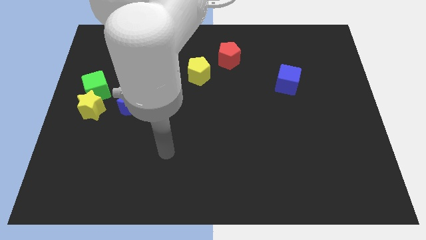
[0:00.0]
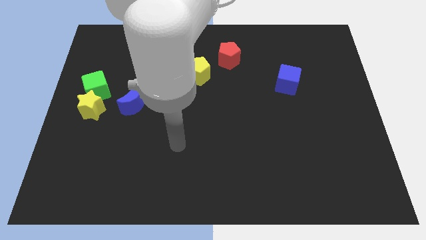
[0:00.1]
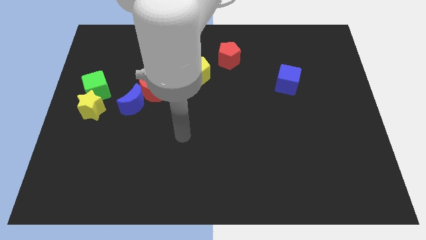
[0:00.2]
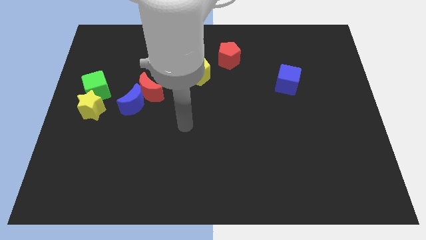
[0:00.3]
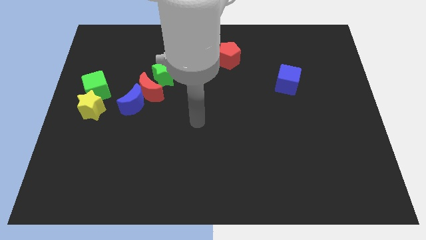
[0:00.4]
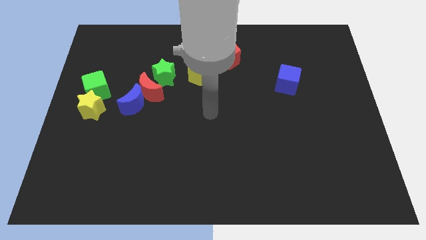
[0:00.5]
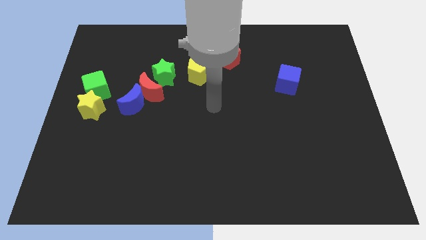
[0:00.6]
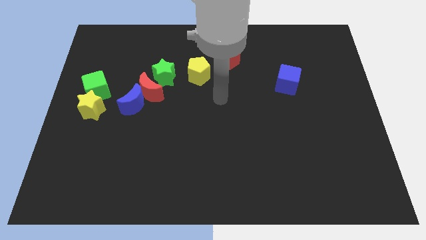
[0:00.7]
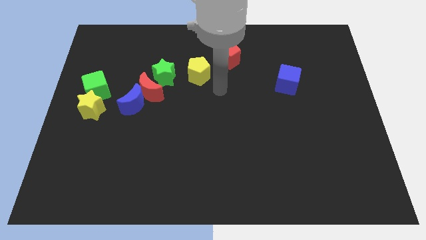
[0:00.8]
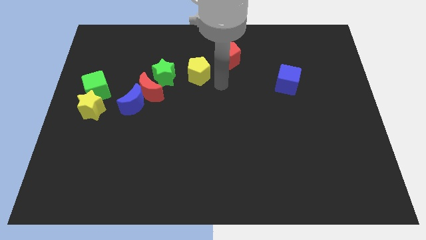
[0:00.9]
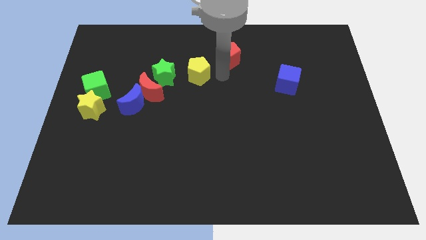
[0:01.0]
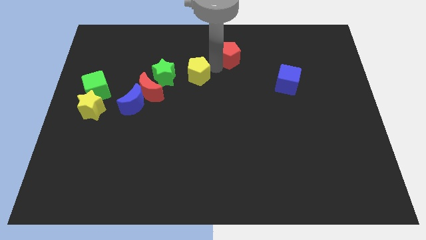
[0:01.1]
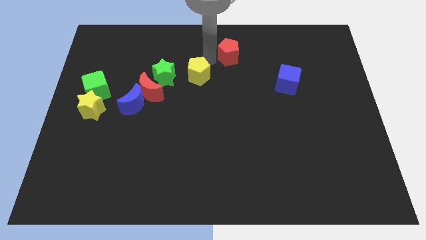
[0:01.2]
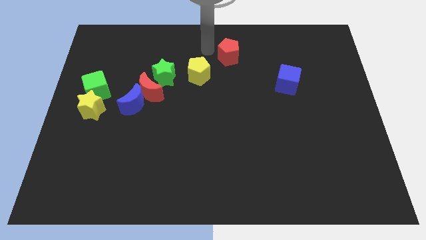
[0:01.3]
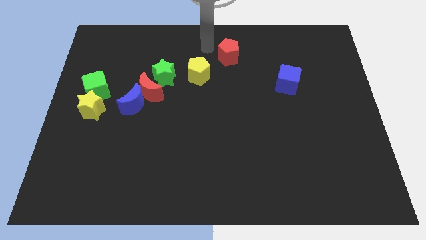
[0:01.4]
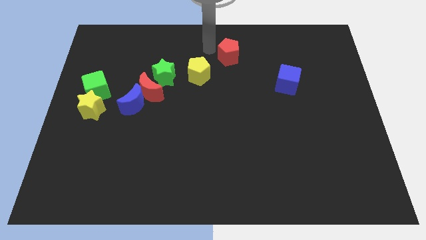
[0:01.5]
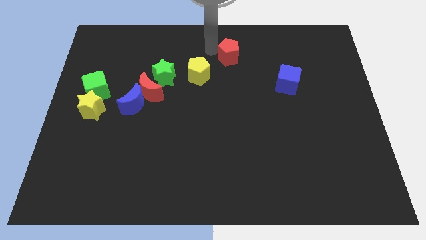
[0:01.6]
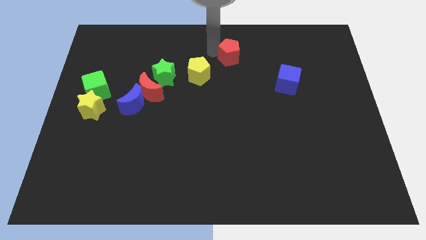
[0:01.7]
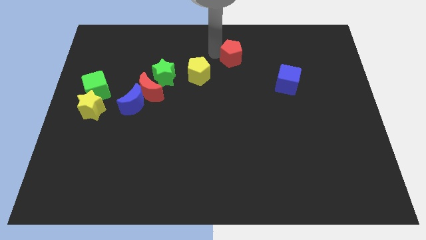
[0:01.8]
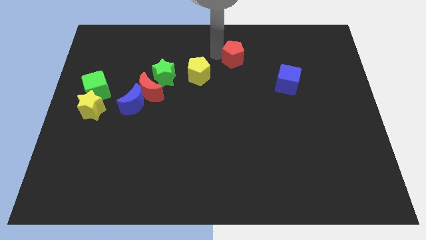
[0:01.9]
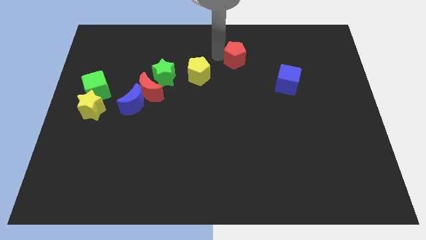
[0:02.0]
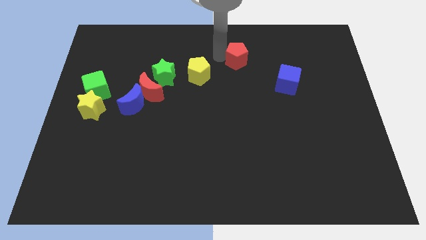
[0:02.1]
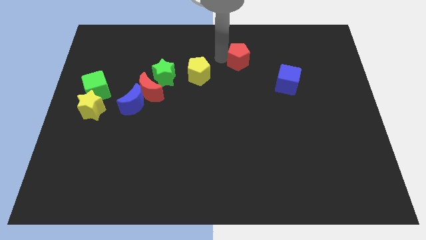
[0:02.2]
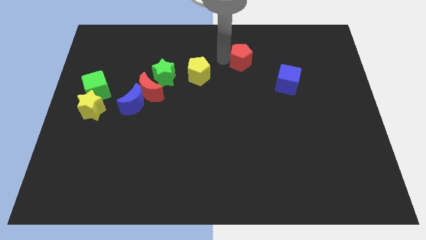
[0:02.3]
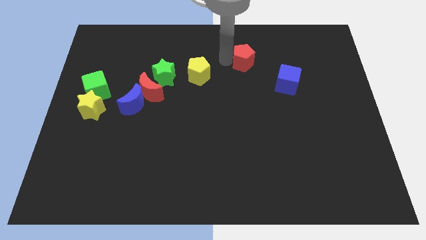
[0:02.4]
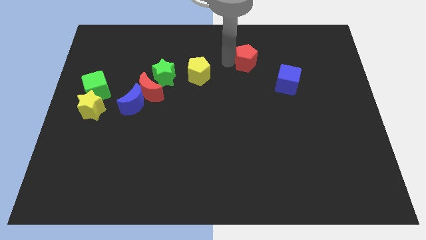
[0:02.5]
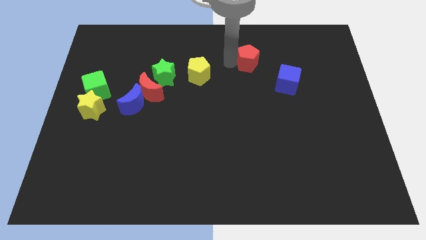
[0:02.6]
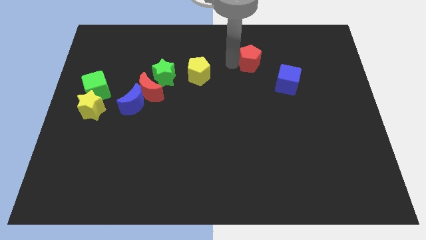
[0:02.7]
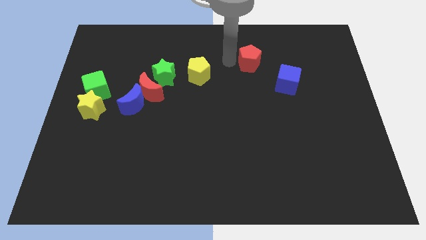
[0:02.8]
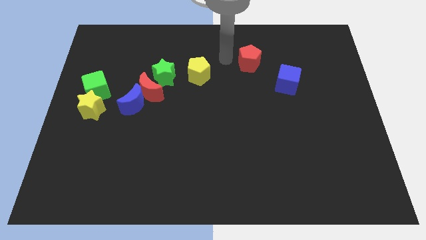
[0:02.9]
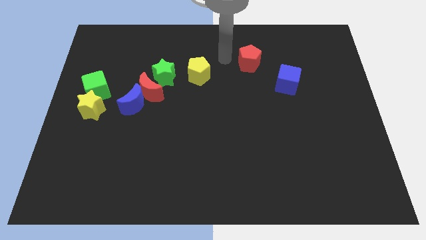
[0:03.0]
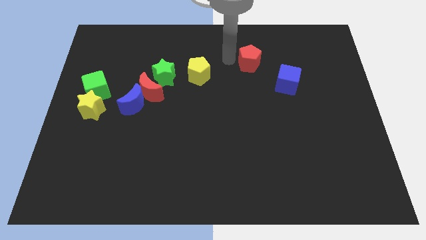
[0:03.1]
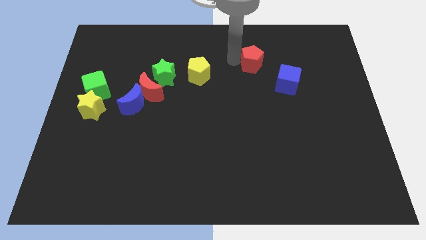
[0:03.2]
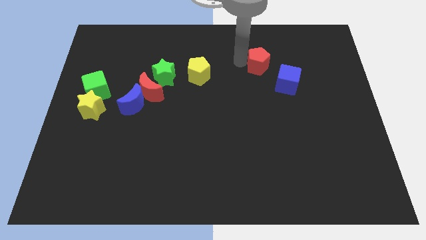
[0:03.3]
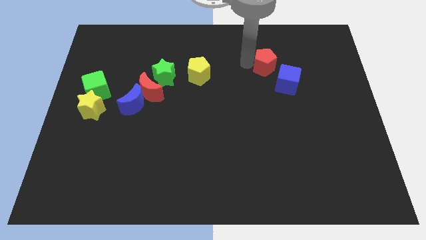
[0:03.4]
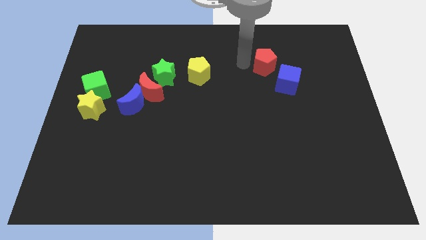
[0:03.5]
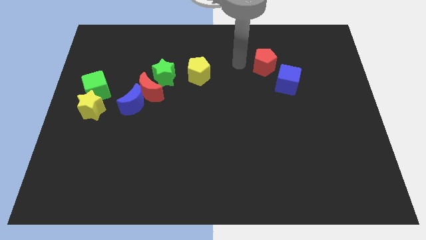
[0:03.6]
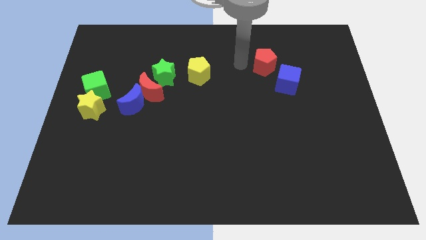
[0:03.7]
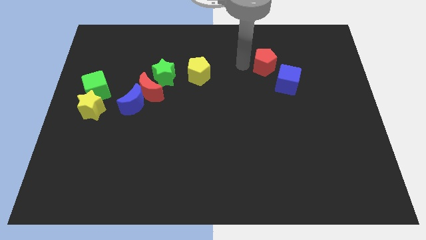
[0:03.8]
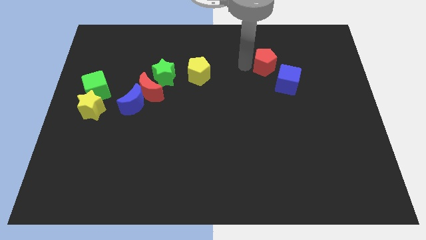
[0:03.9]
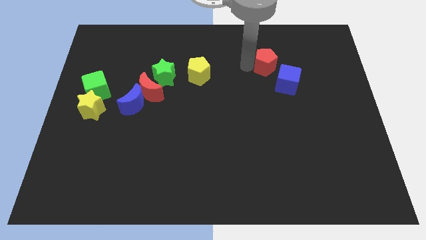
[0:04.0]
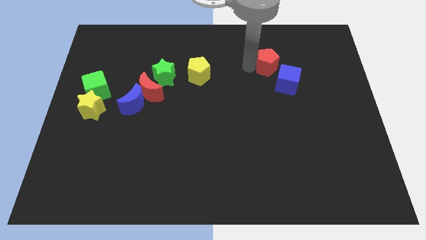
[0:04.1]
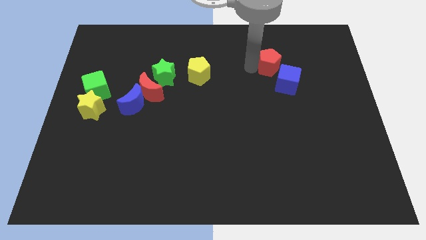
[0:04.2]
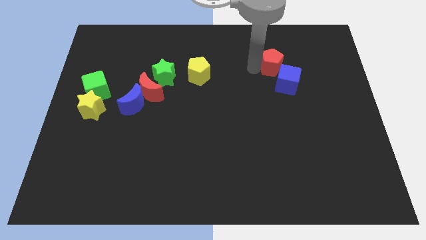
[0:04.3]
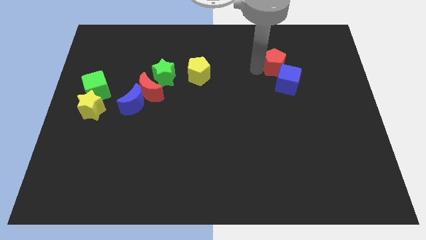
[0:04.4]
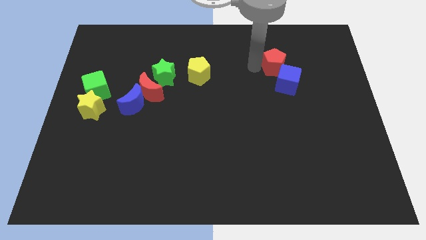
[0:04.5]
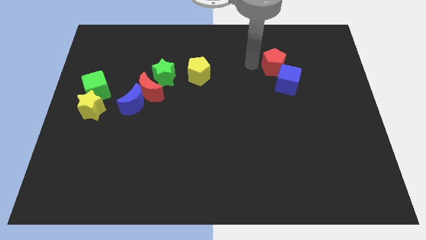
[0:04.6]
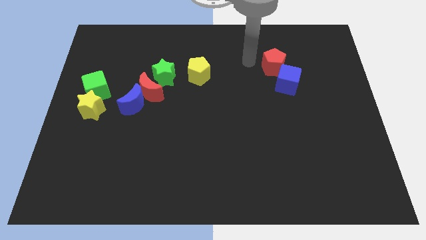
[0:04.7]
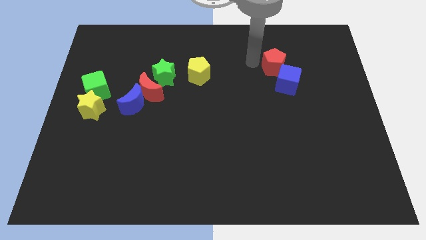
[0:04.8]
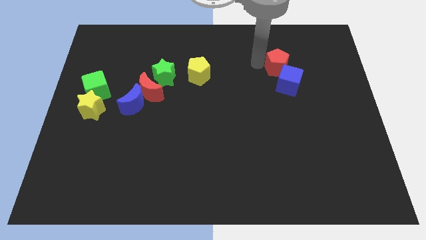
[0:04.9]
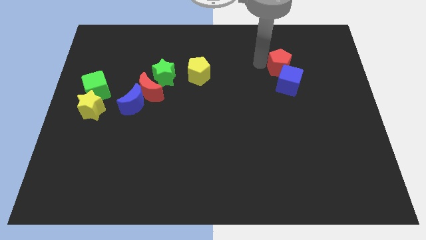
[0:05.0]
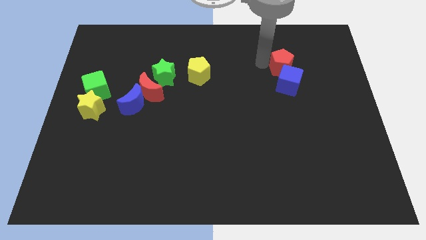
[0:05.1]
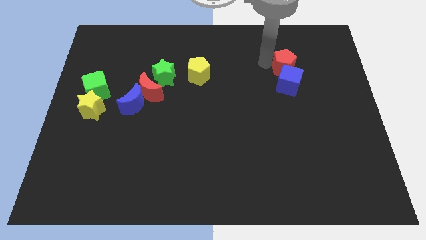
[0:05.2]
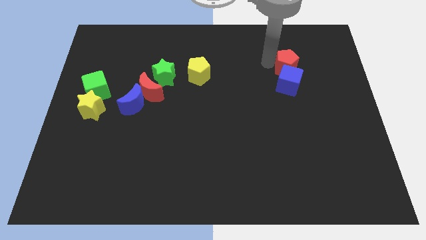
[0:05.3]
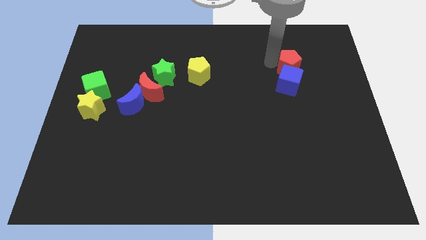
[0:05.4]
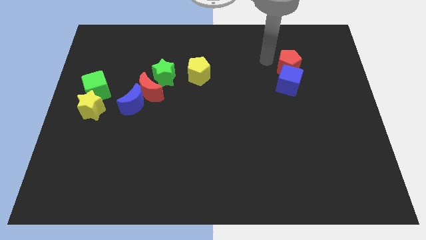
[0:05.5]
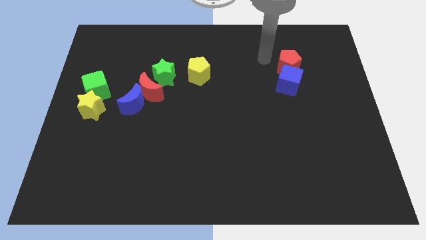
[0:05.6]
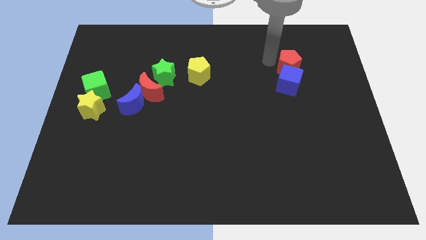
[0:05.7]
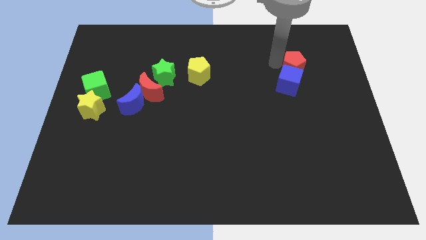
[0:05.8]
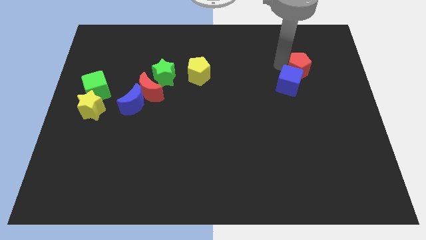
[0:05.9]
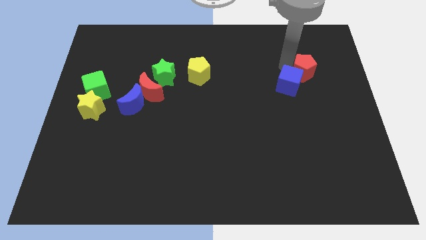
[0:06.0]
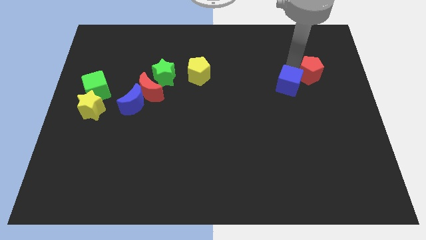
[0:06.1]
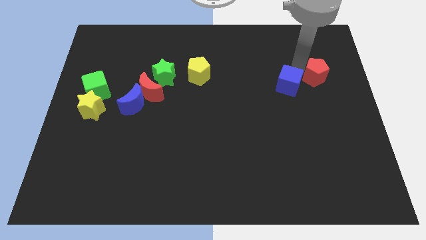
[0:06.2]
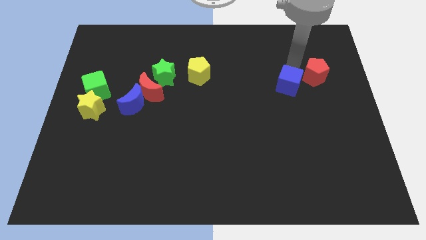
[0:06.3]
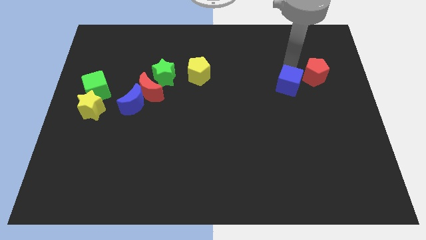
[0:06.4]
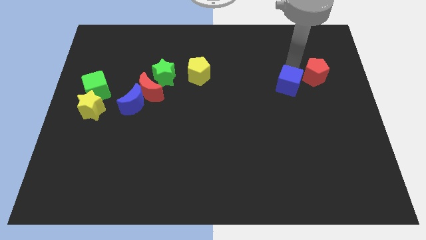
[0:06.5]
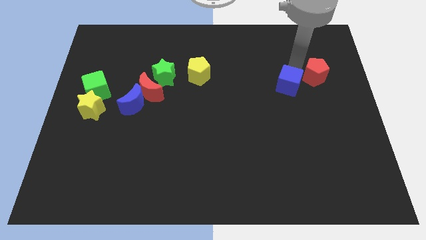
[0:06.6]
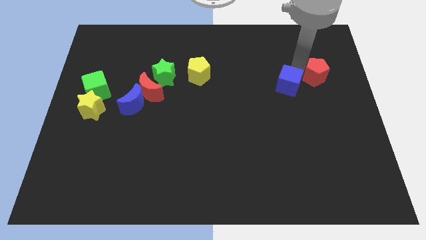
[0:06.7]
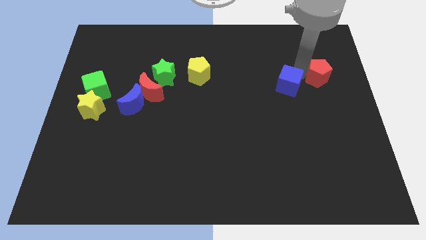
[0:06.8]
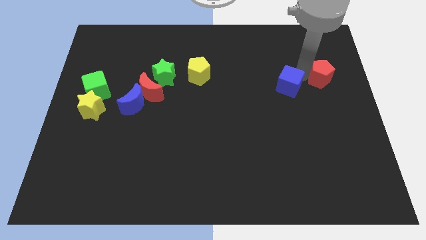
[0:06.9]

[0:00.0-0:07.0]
slide the red pentagon to the center right
